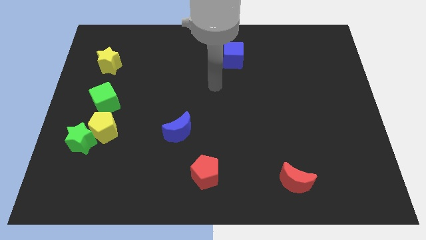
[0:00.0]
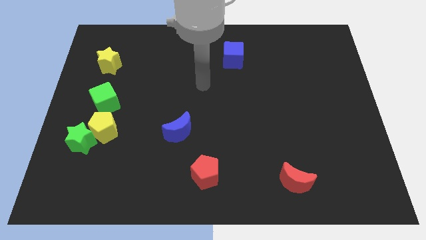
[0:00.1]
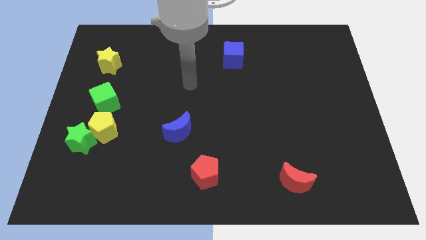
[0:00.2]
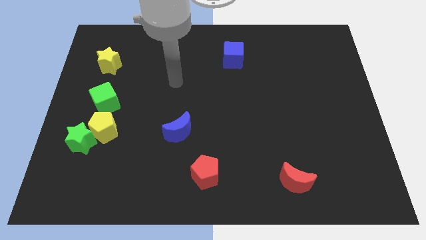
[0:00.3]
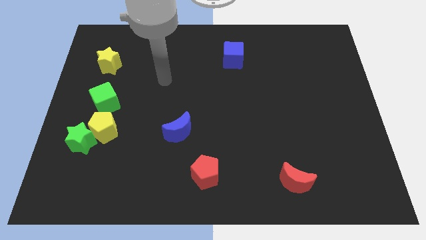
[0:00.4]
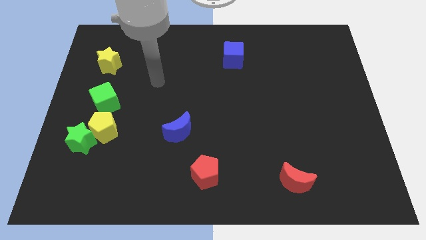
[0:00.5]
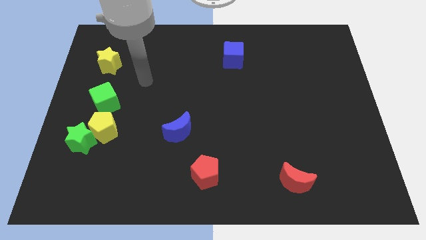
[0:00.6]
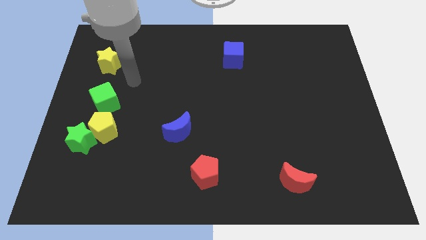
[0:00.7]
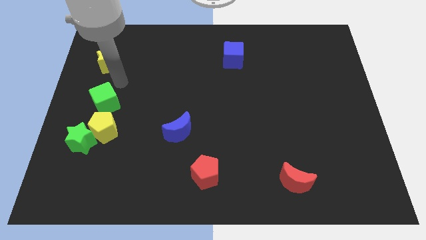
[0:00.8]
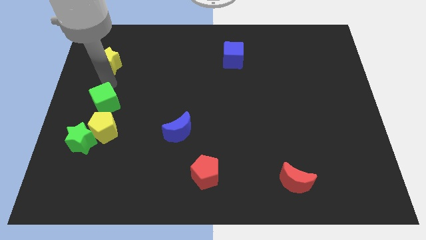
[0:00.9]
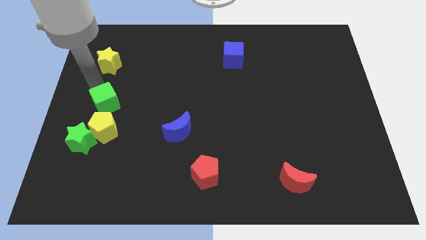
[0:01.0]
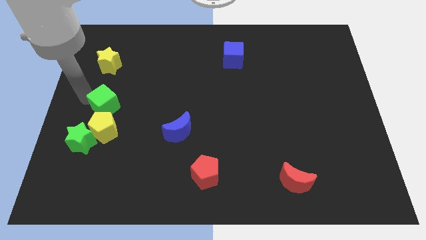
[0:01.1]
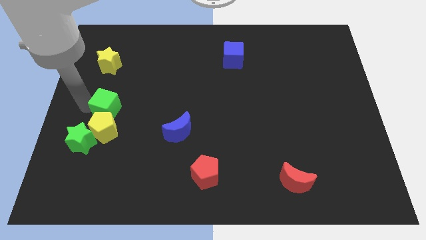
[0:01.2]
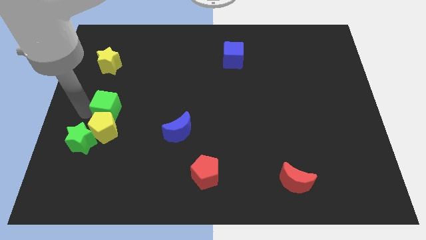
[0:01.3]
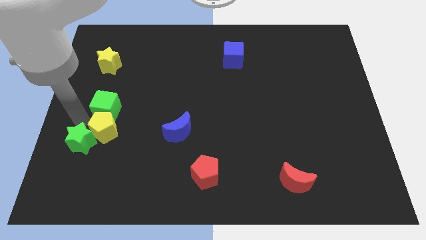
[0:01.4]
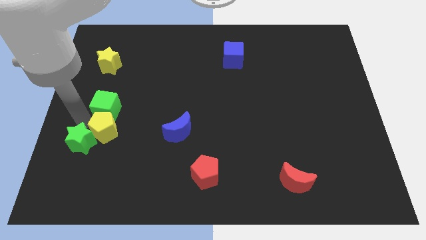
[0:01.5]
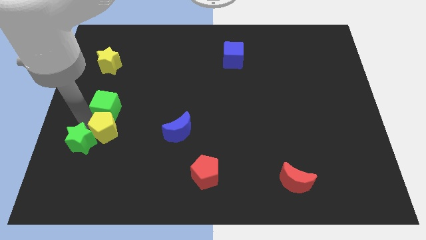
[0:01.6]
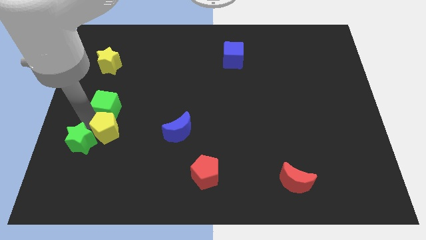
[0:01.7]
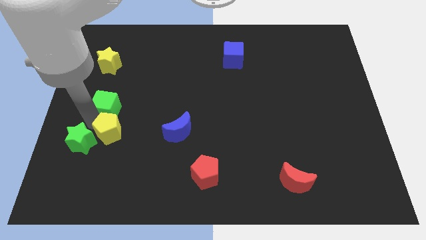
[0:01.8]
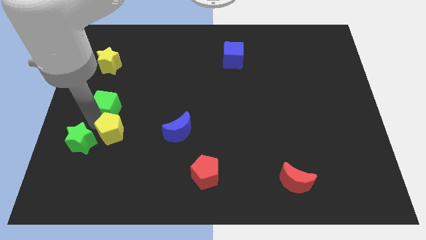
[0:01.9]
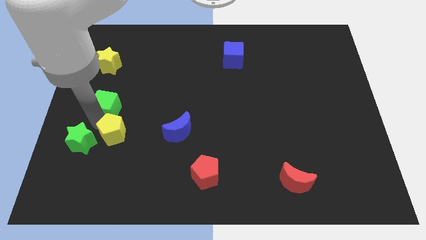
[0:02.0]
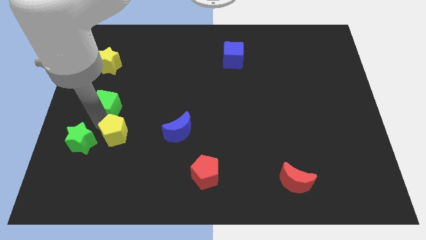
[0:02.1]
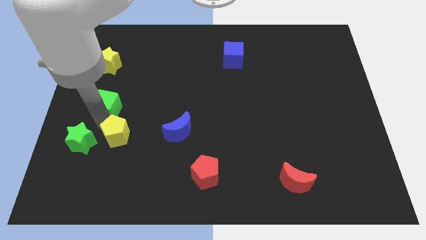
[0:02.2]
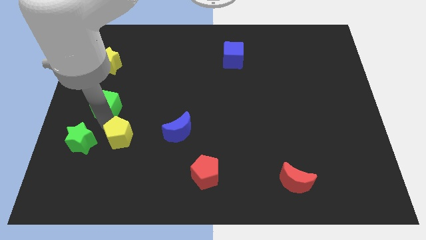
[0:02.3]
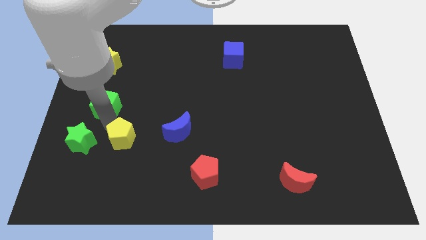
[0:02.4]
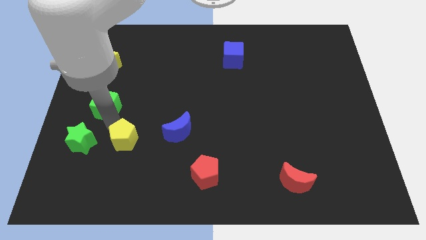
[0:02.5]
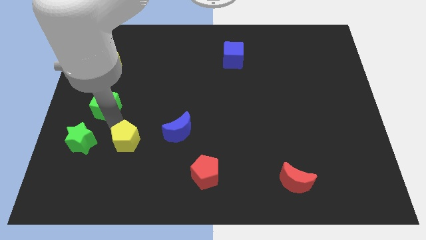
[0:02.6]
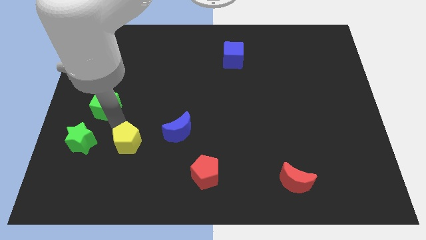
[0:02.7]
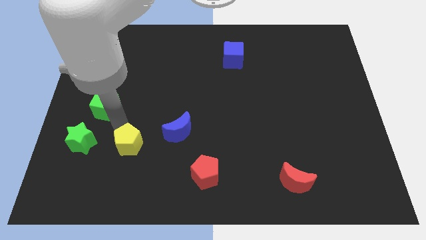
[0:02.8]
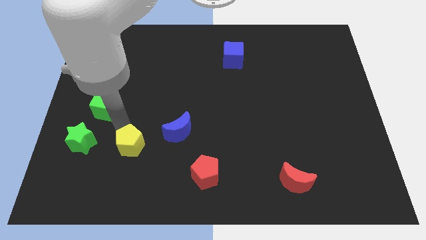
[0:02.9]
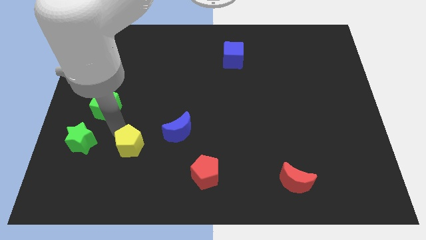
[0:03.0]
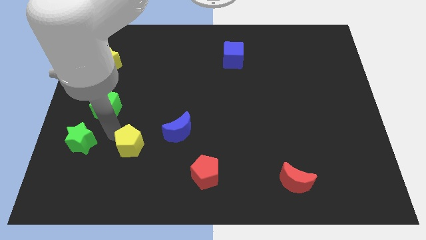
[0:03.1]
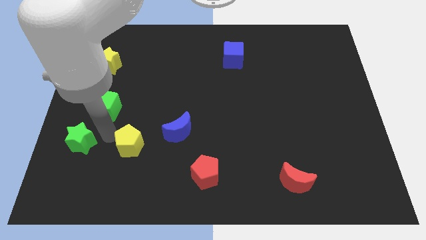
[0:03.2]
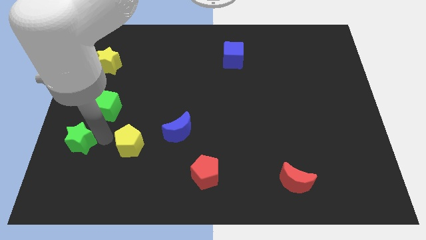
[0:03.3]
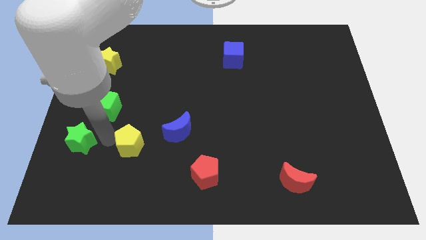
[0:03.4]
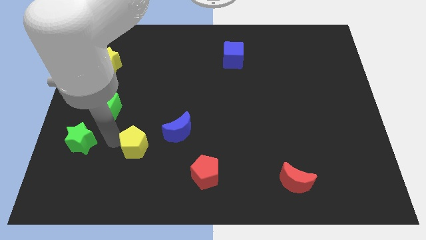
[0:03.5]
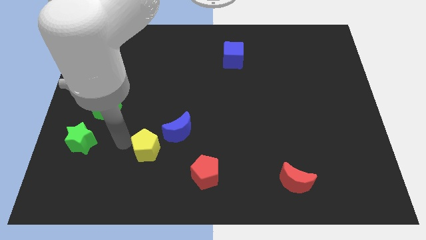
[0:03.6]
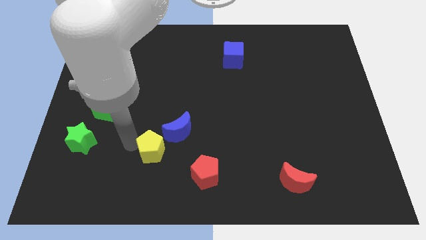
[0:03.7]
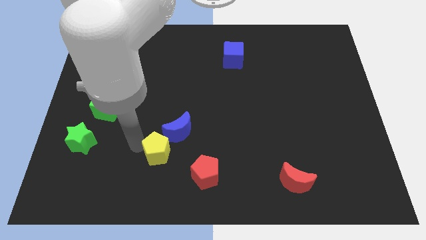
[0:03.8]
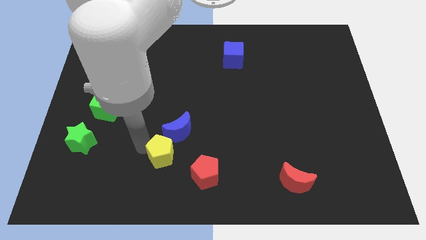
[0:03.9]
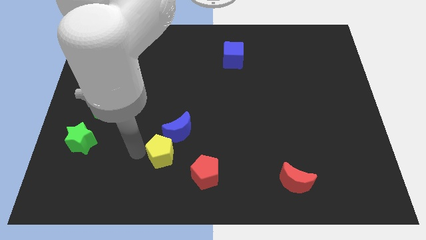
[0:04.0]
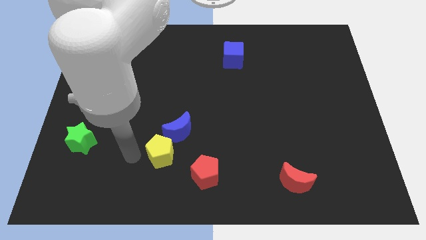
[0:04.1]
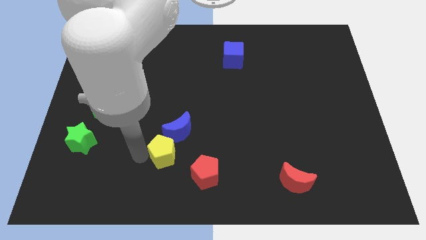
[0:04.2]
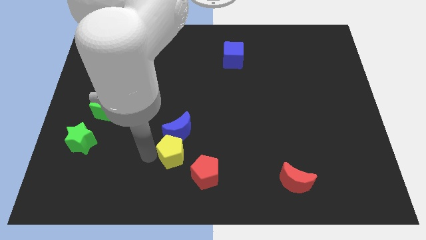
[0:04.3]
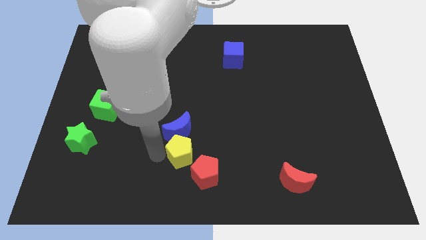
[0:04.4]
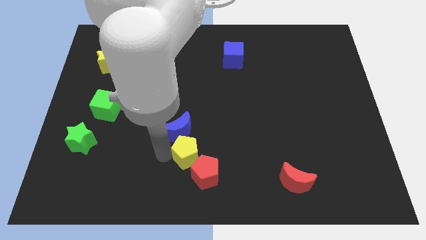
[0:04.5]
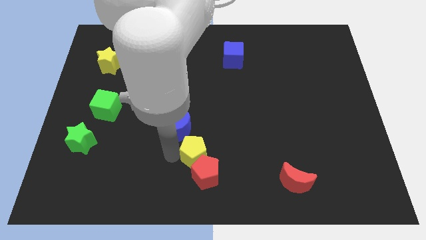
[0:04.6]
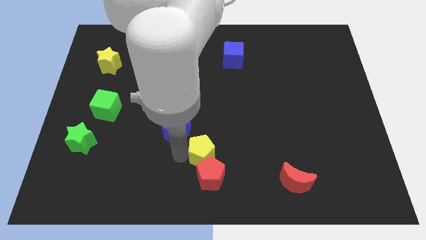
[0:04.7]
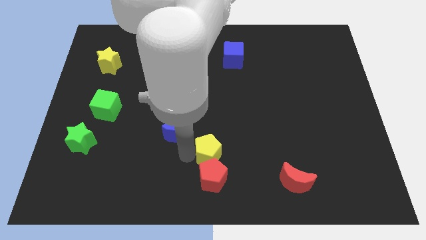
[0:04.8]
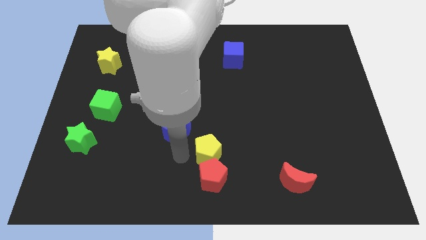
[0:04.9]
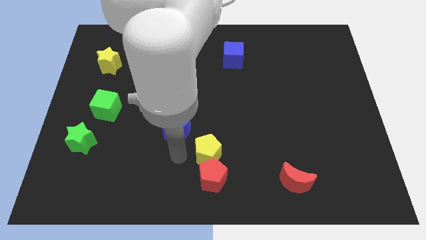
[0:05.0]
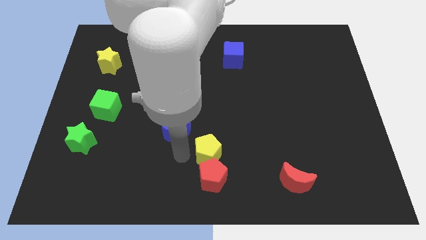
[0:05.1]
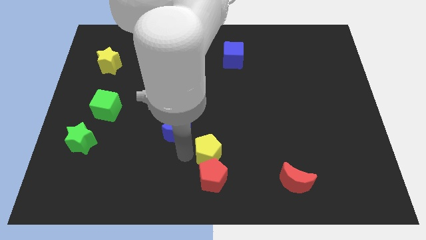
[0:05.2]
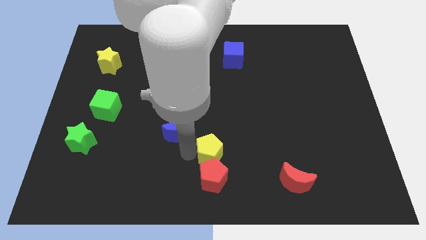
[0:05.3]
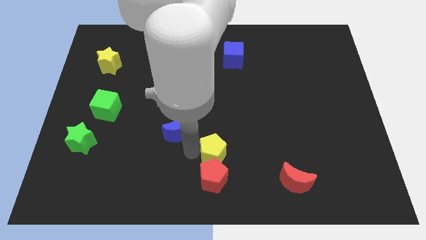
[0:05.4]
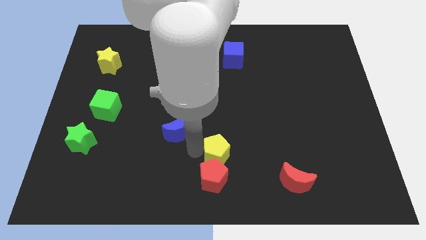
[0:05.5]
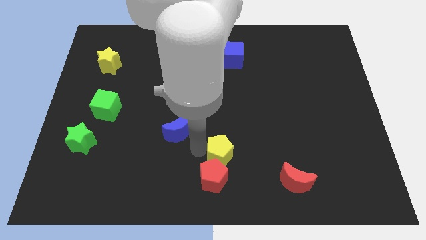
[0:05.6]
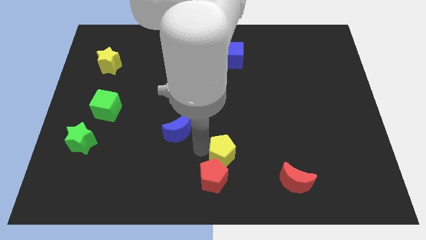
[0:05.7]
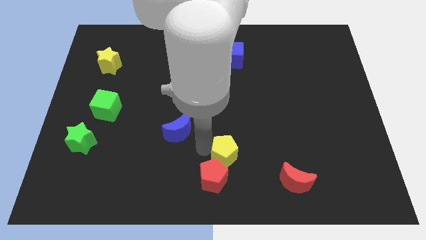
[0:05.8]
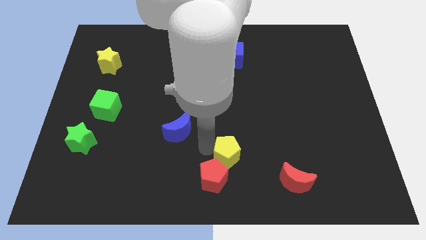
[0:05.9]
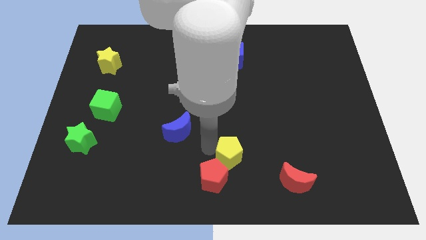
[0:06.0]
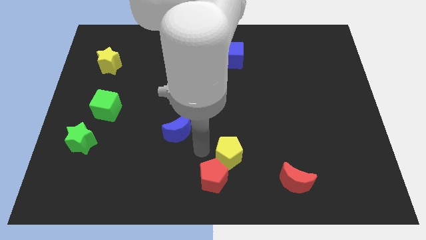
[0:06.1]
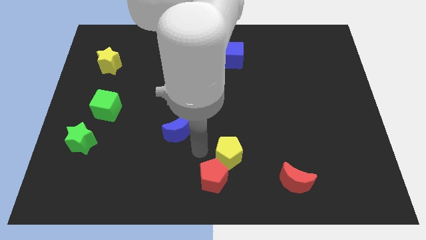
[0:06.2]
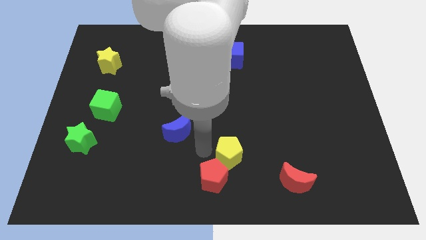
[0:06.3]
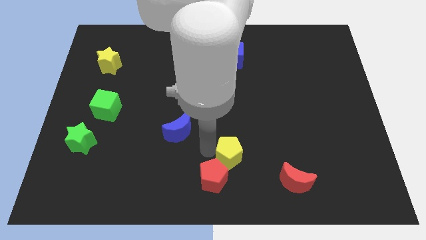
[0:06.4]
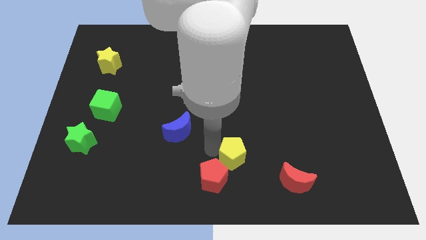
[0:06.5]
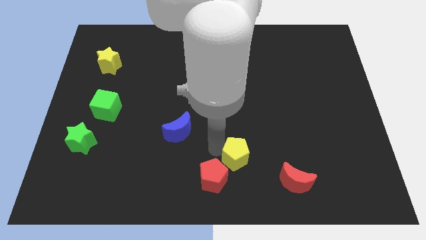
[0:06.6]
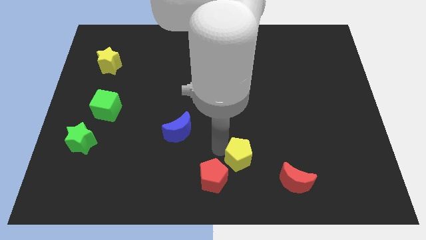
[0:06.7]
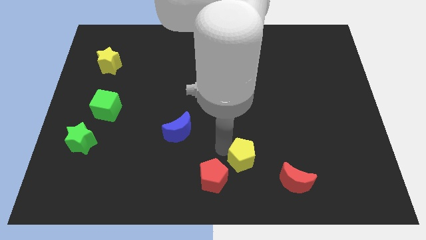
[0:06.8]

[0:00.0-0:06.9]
move the yellow pentagon to the top left side of the red moon

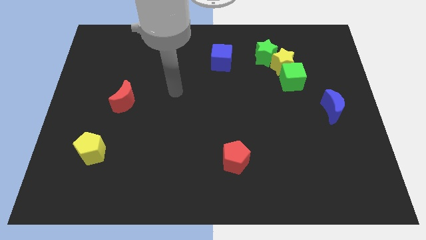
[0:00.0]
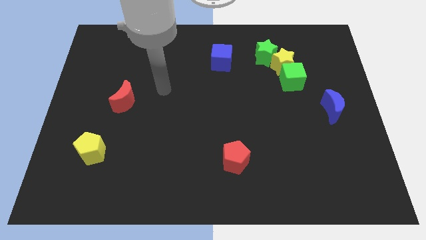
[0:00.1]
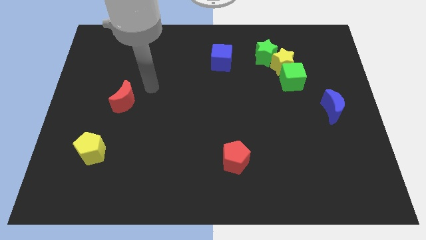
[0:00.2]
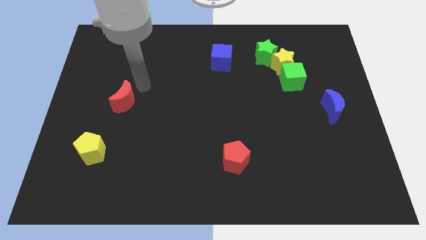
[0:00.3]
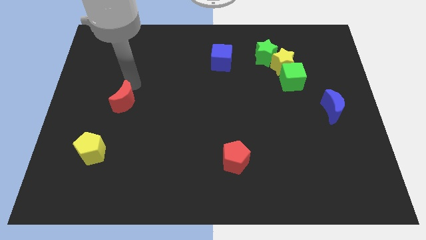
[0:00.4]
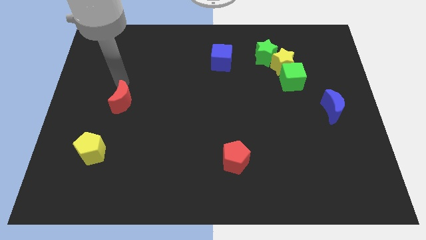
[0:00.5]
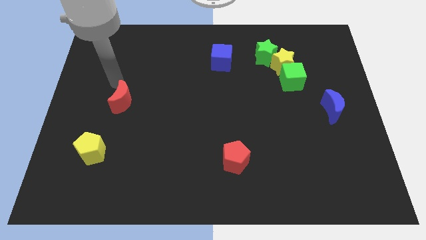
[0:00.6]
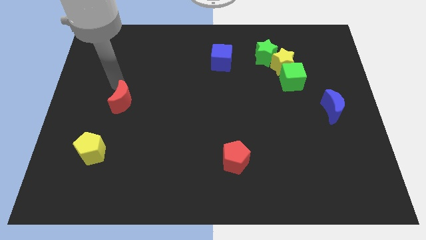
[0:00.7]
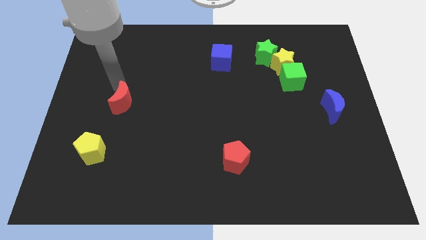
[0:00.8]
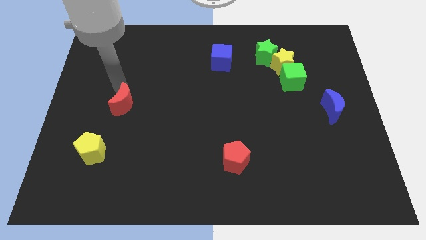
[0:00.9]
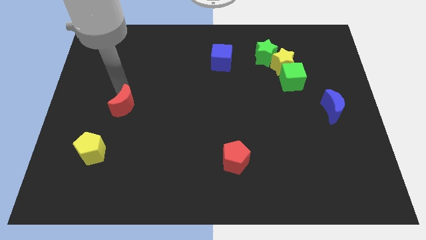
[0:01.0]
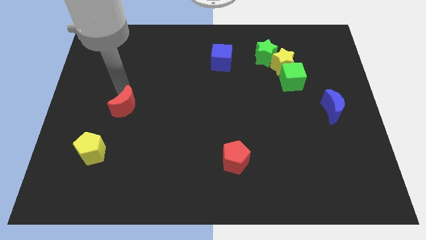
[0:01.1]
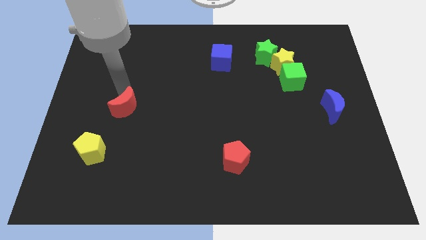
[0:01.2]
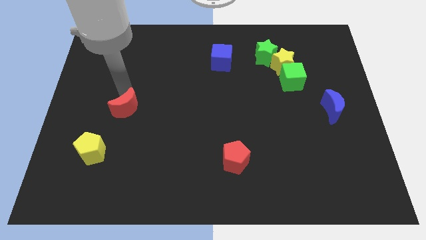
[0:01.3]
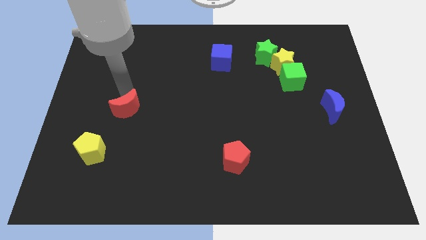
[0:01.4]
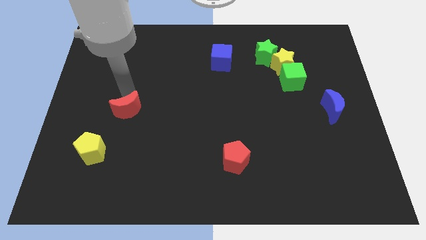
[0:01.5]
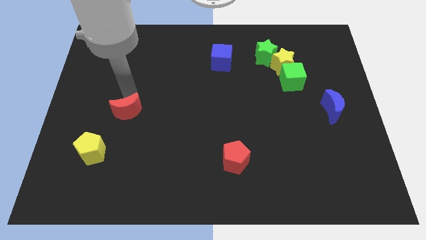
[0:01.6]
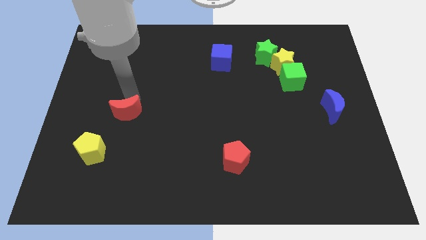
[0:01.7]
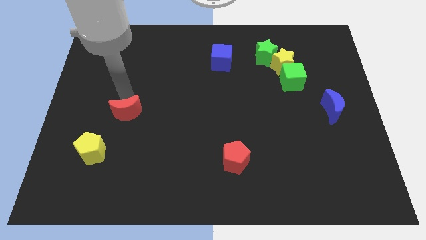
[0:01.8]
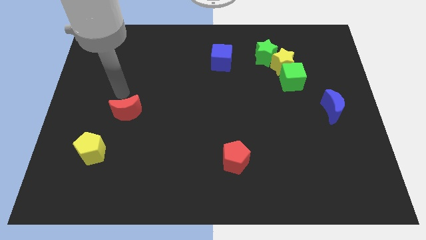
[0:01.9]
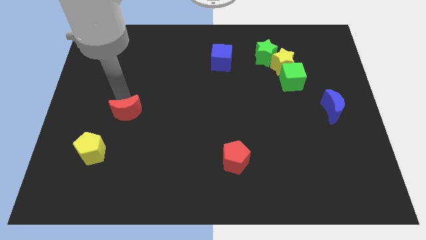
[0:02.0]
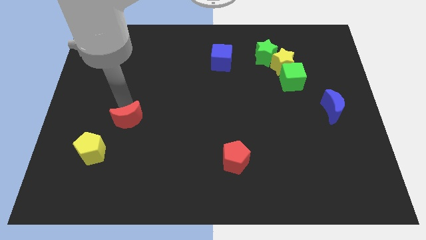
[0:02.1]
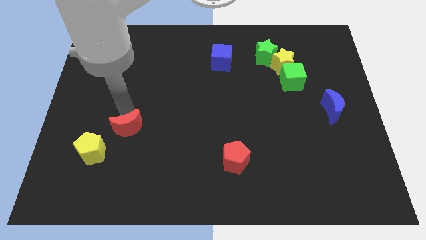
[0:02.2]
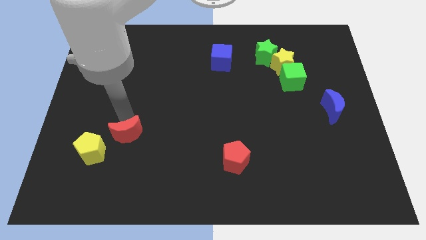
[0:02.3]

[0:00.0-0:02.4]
push the red moon to the right side of the yellow pentagon
